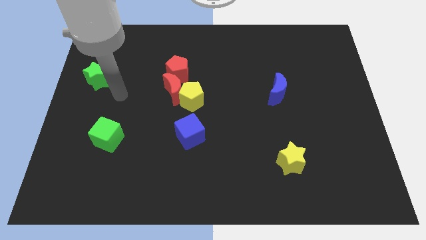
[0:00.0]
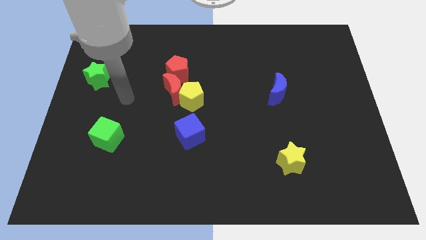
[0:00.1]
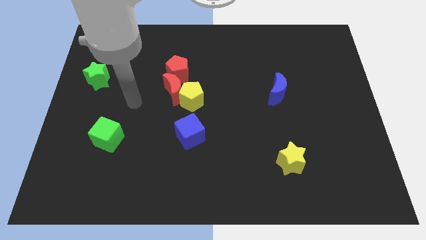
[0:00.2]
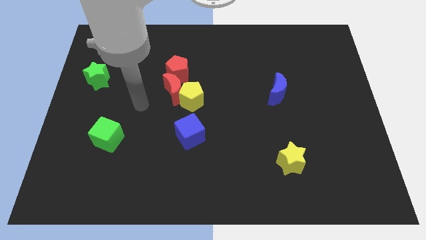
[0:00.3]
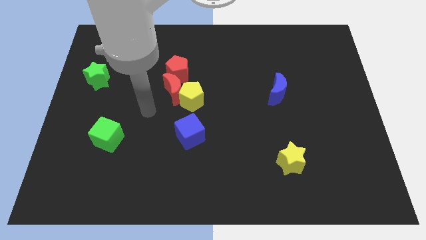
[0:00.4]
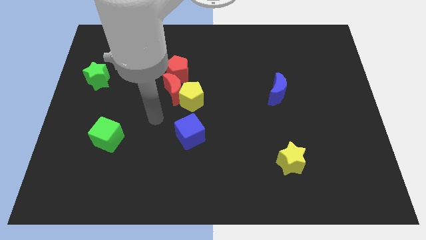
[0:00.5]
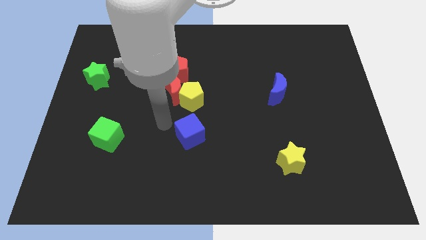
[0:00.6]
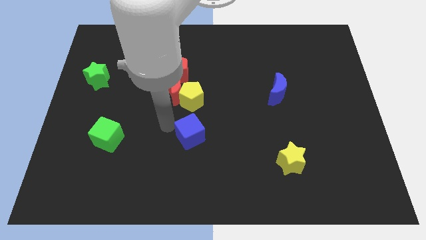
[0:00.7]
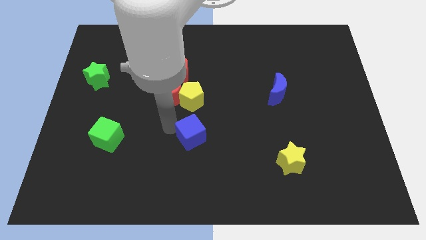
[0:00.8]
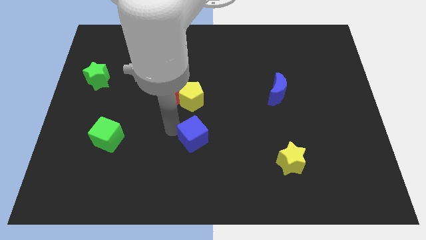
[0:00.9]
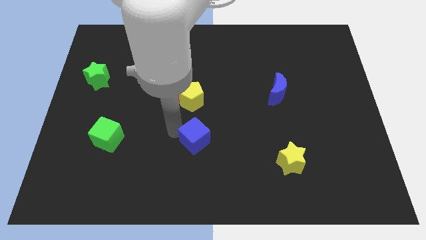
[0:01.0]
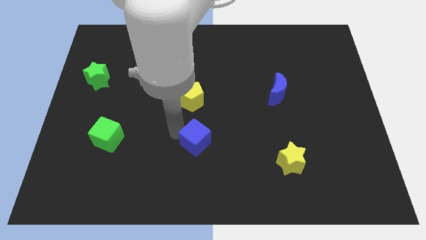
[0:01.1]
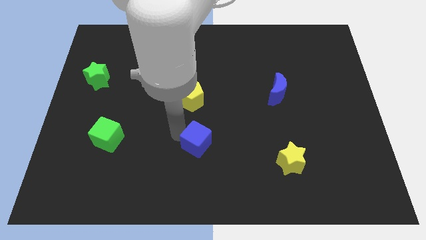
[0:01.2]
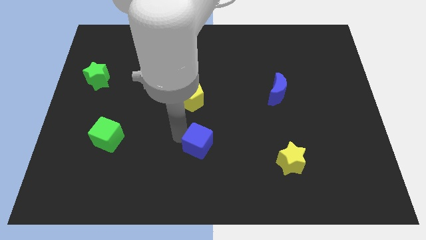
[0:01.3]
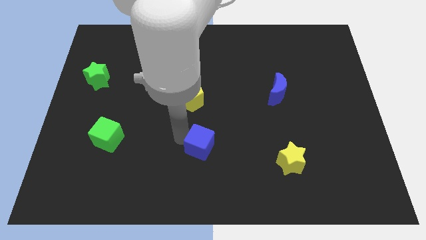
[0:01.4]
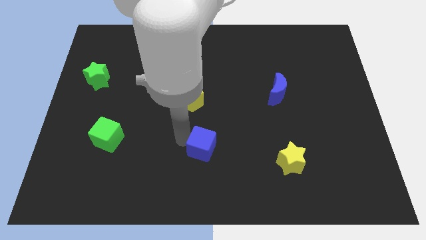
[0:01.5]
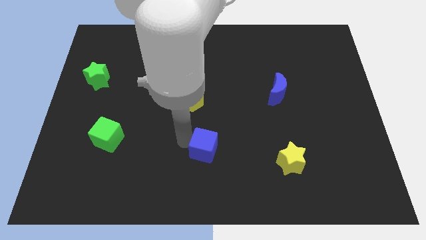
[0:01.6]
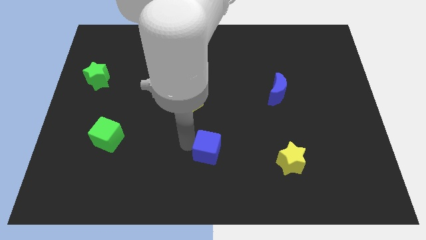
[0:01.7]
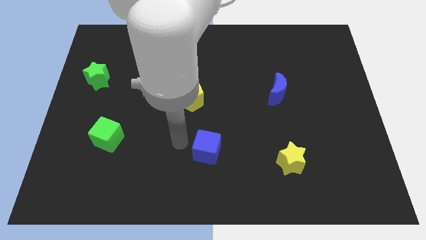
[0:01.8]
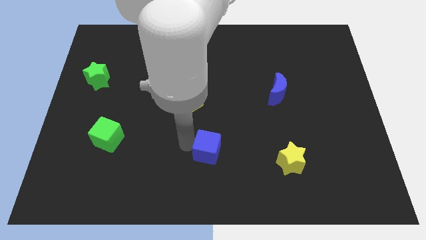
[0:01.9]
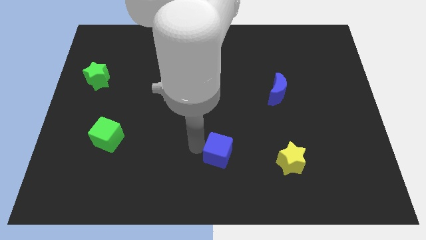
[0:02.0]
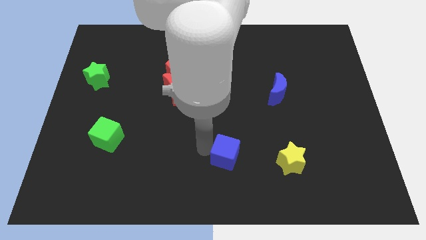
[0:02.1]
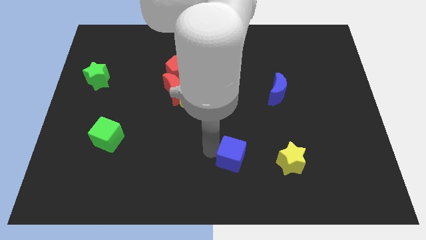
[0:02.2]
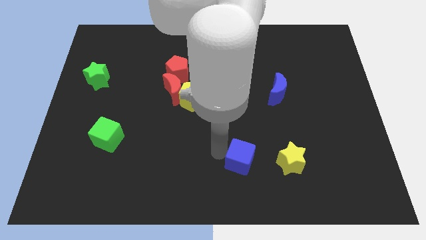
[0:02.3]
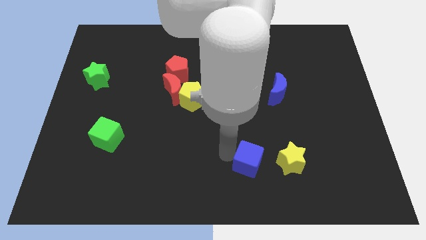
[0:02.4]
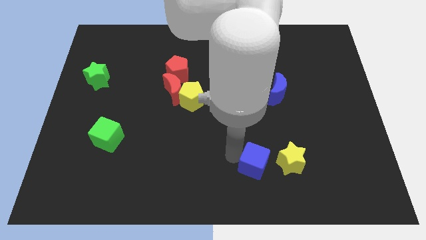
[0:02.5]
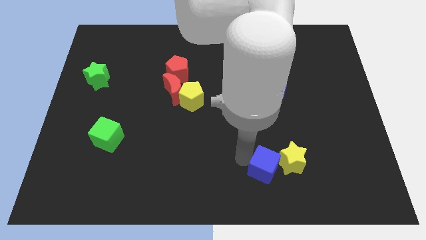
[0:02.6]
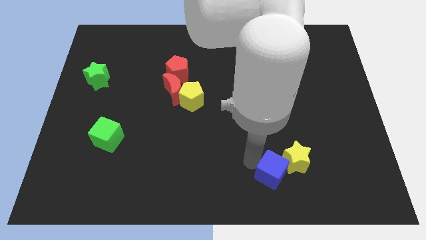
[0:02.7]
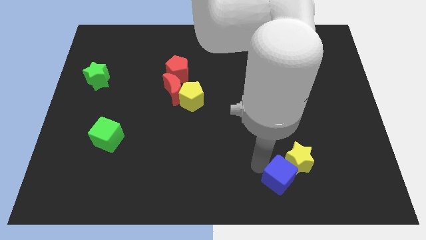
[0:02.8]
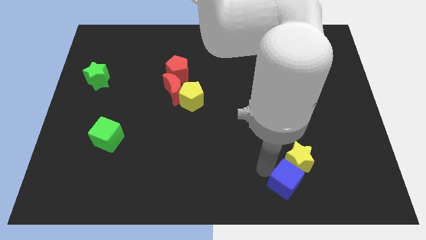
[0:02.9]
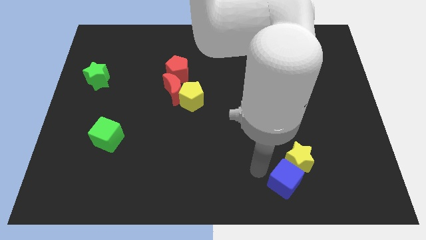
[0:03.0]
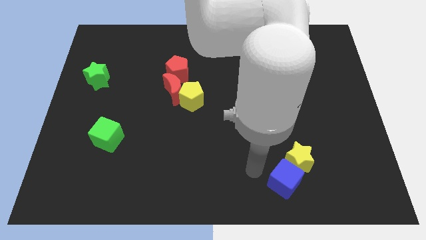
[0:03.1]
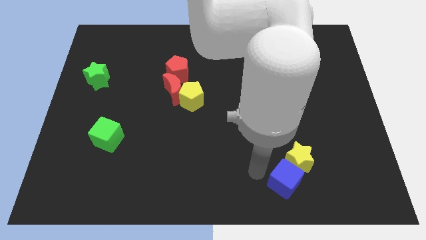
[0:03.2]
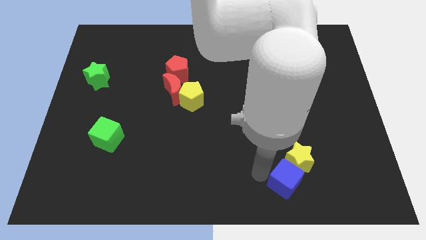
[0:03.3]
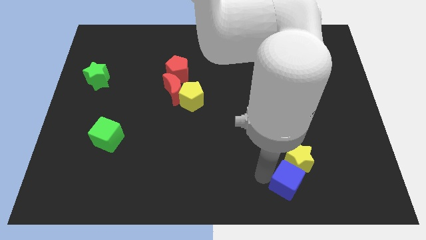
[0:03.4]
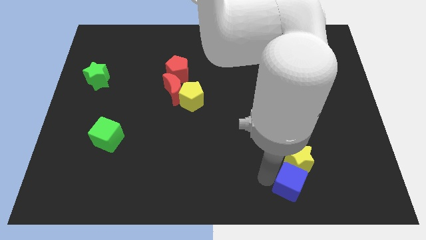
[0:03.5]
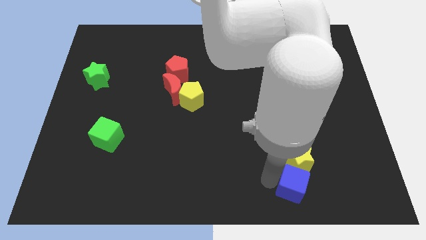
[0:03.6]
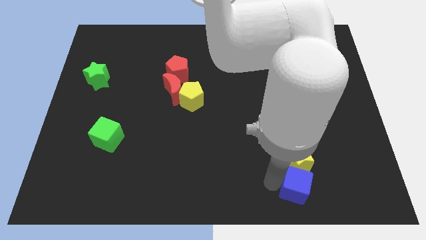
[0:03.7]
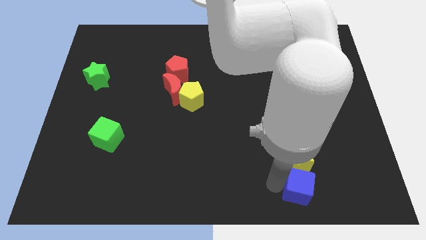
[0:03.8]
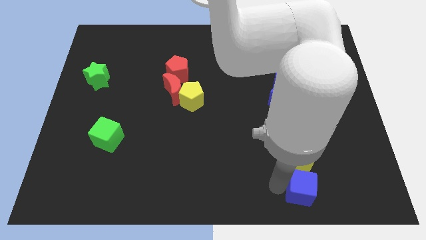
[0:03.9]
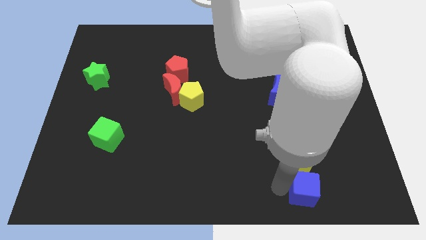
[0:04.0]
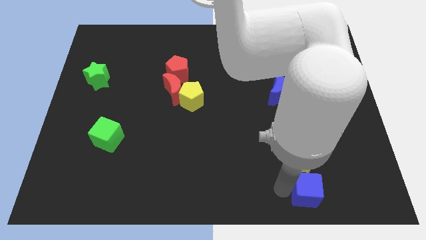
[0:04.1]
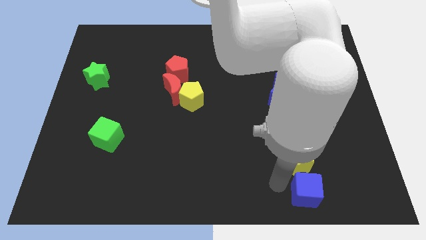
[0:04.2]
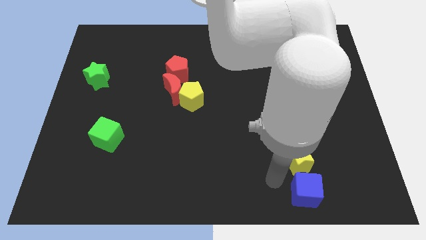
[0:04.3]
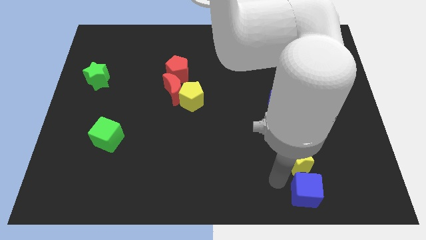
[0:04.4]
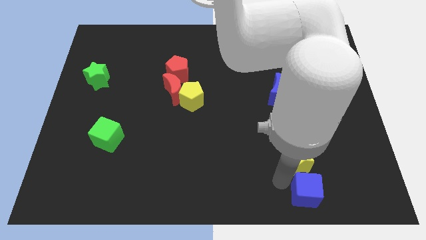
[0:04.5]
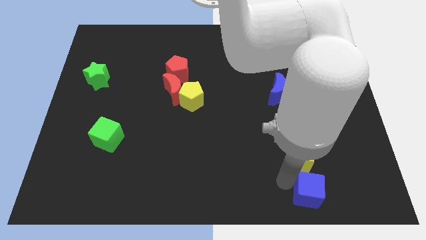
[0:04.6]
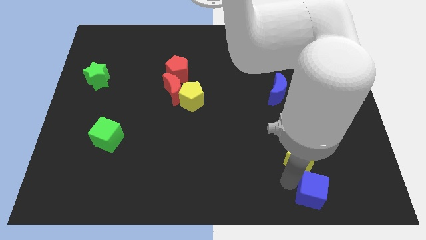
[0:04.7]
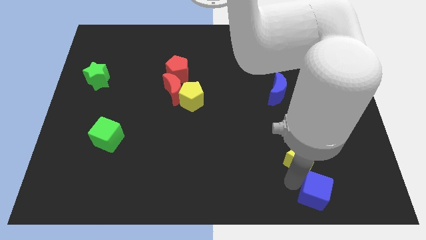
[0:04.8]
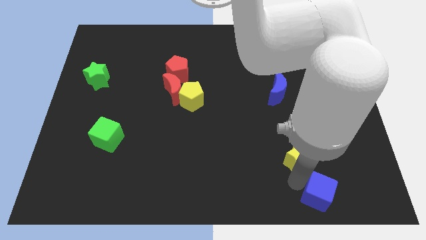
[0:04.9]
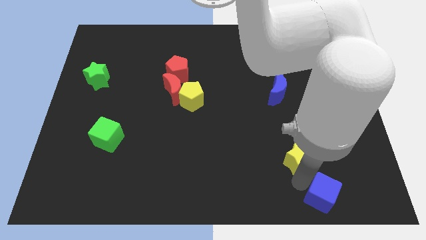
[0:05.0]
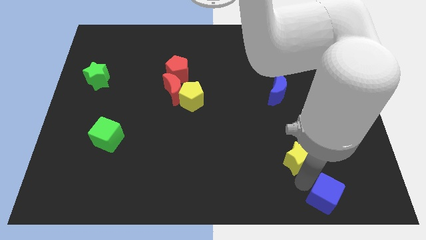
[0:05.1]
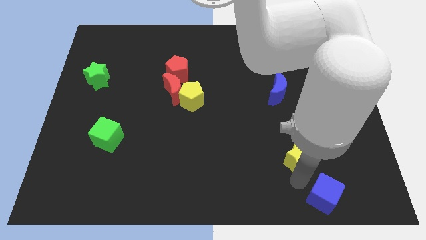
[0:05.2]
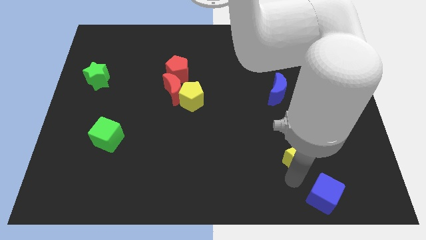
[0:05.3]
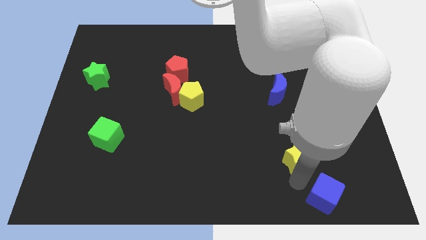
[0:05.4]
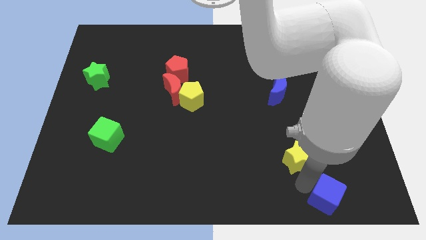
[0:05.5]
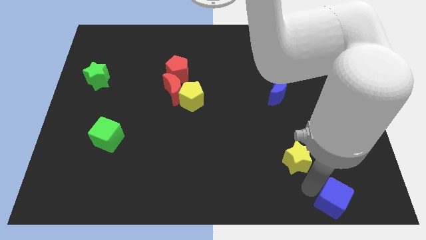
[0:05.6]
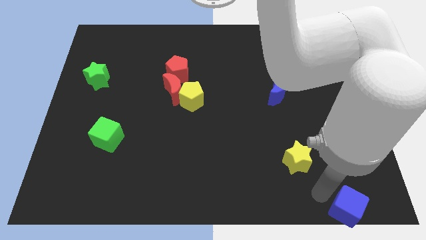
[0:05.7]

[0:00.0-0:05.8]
slide the blue cube to the lower right corner

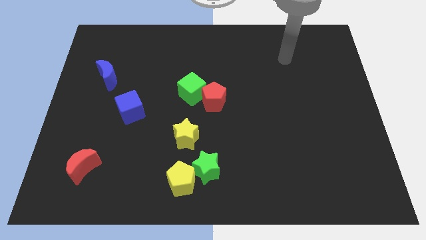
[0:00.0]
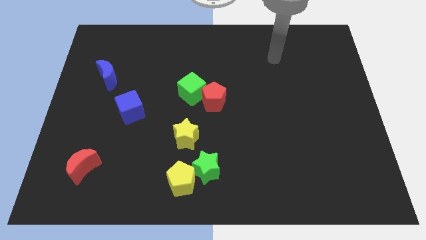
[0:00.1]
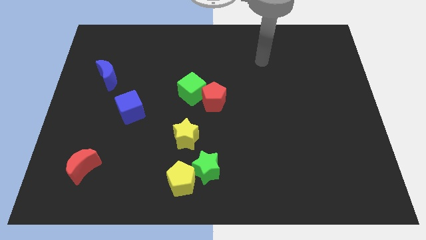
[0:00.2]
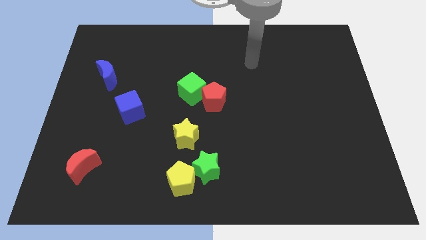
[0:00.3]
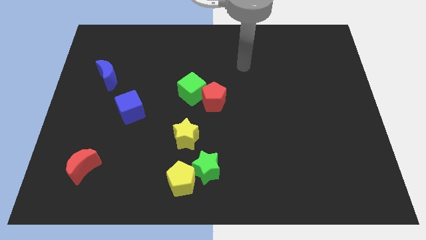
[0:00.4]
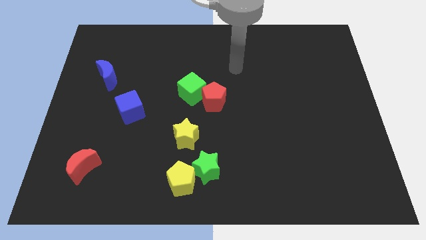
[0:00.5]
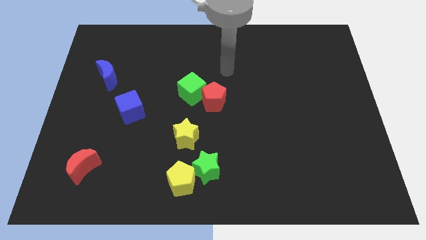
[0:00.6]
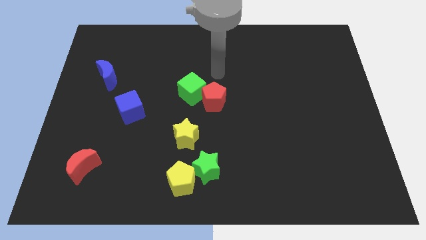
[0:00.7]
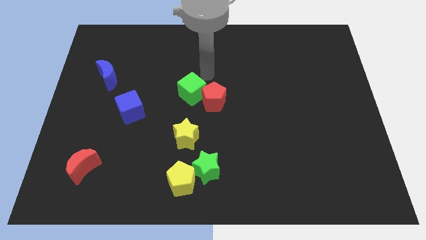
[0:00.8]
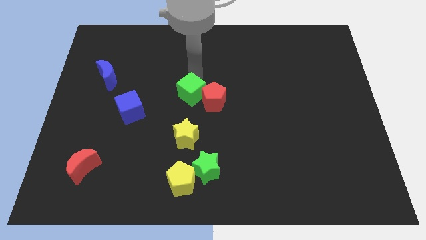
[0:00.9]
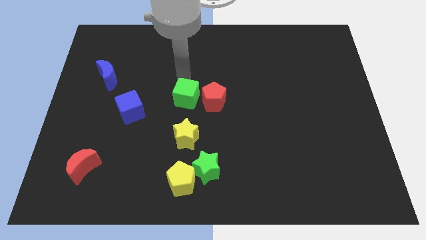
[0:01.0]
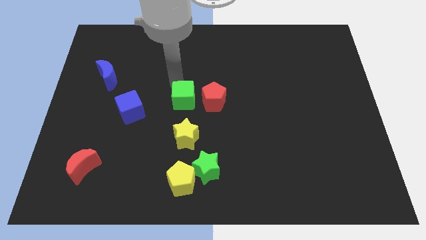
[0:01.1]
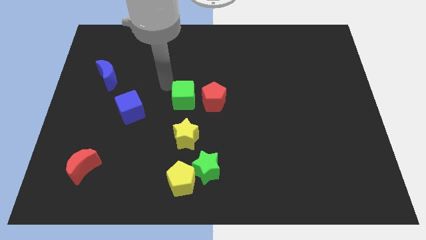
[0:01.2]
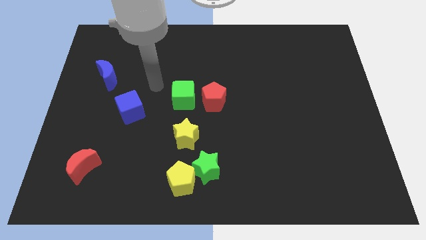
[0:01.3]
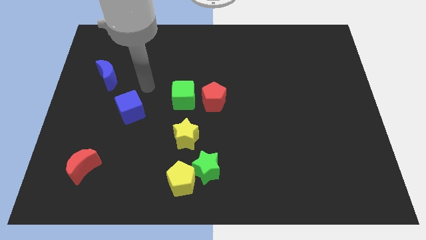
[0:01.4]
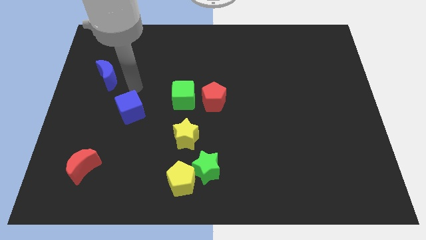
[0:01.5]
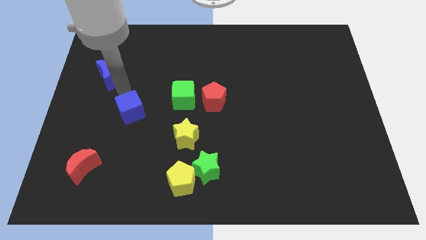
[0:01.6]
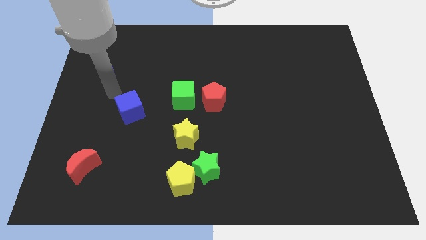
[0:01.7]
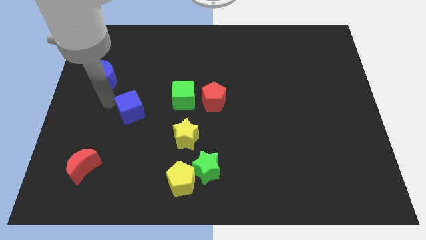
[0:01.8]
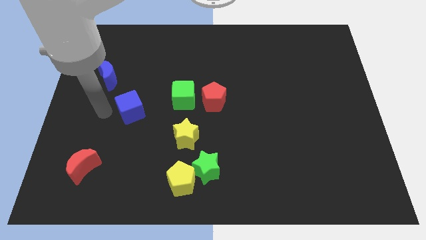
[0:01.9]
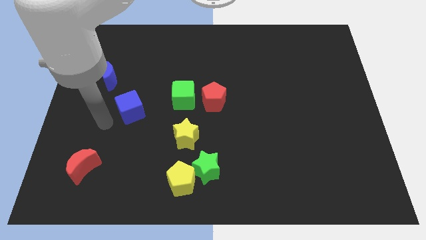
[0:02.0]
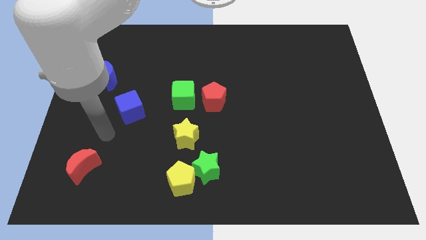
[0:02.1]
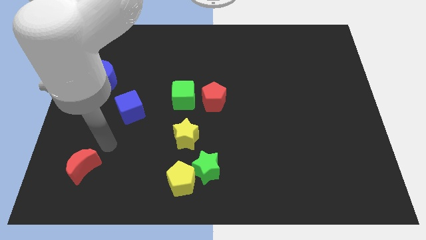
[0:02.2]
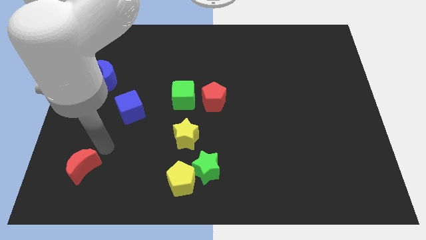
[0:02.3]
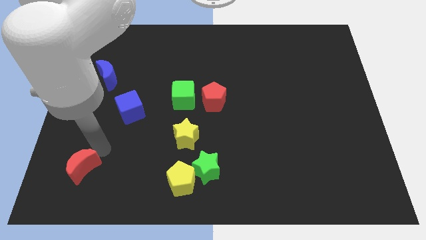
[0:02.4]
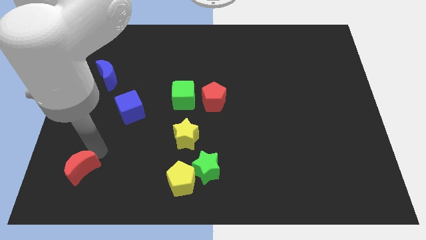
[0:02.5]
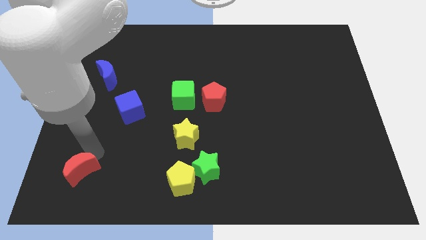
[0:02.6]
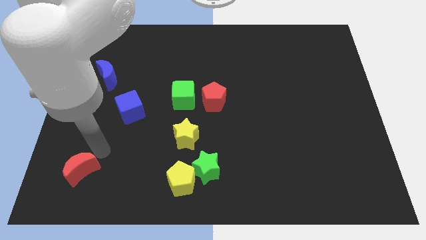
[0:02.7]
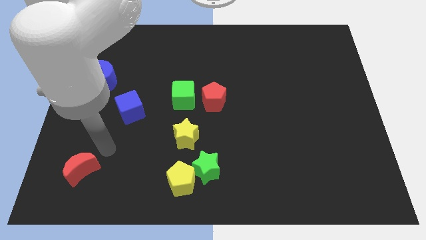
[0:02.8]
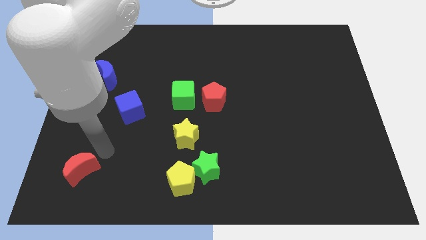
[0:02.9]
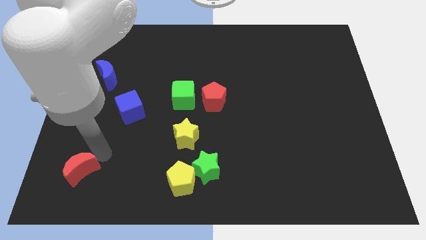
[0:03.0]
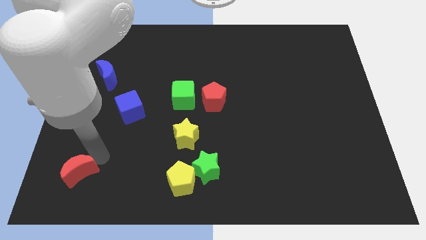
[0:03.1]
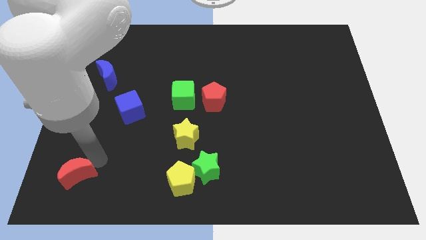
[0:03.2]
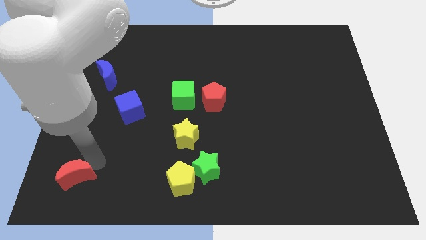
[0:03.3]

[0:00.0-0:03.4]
put the red moon to the bottom left corner
